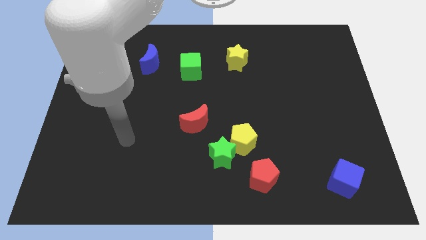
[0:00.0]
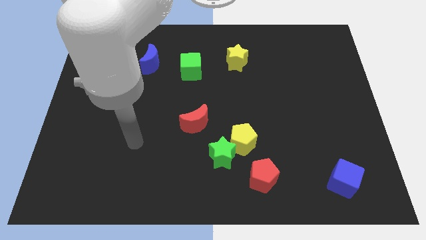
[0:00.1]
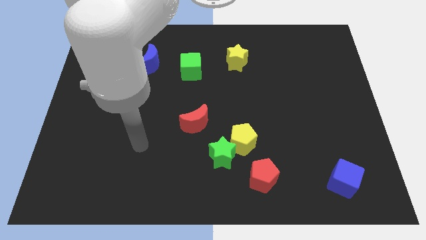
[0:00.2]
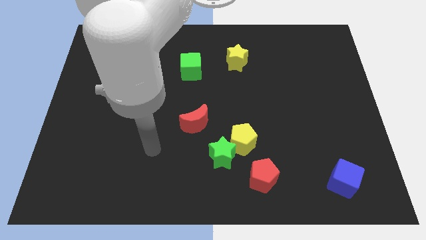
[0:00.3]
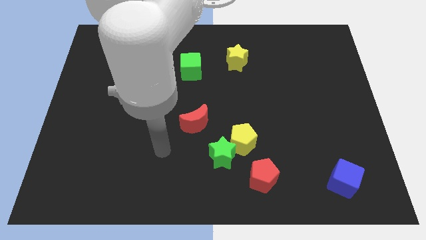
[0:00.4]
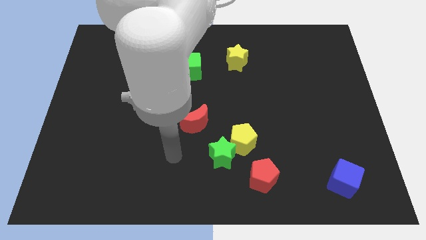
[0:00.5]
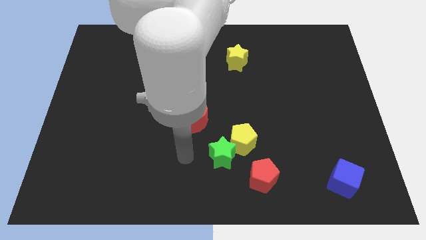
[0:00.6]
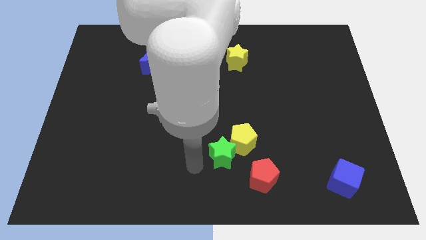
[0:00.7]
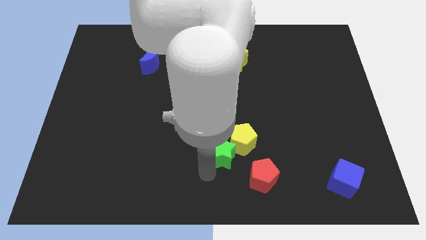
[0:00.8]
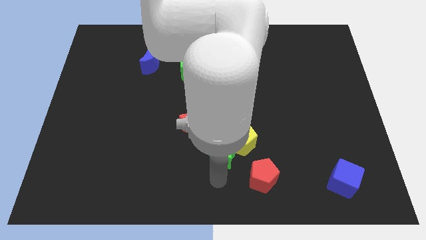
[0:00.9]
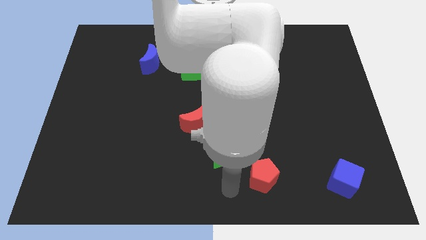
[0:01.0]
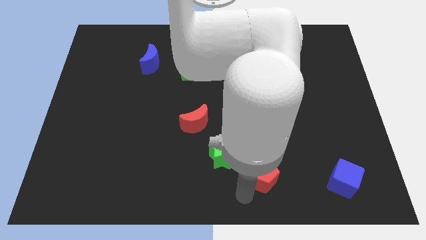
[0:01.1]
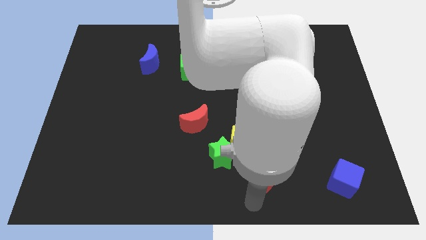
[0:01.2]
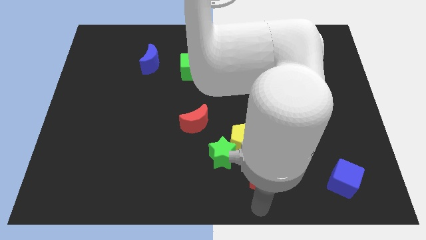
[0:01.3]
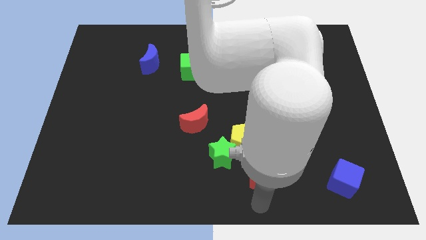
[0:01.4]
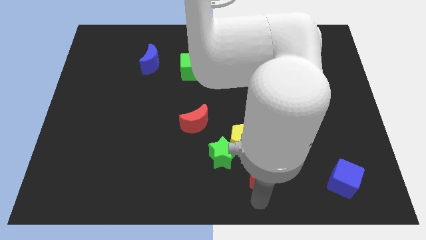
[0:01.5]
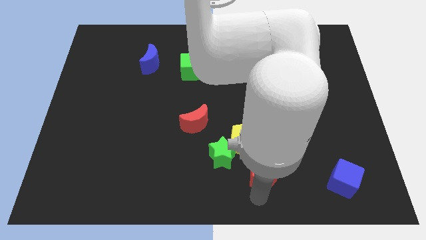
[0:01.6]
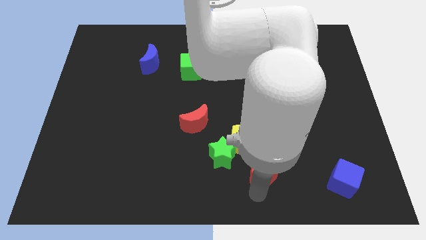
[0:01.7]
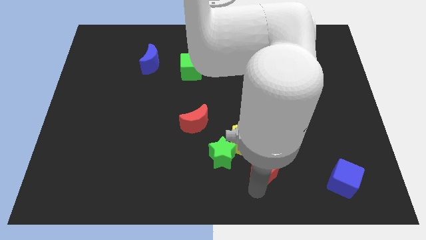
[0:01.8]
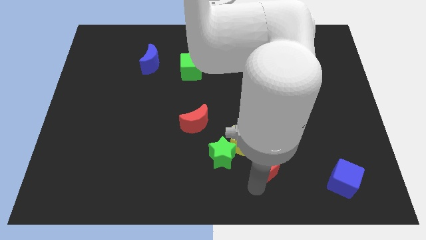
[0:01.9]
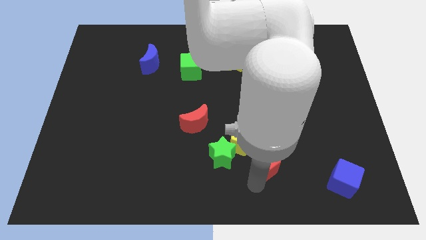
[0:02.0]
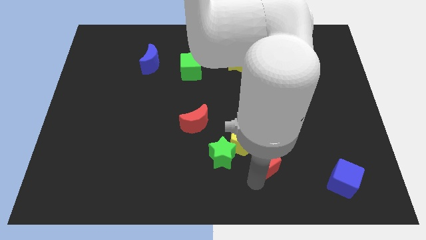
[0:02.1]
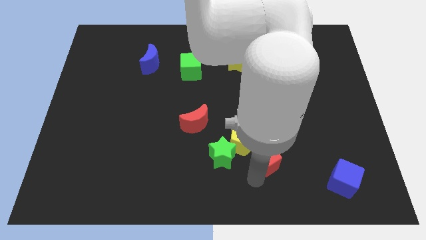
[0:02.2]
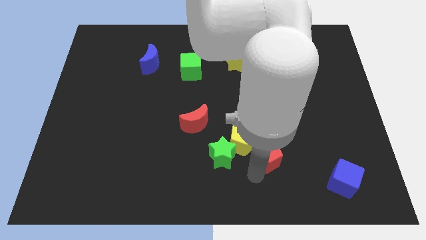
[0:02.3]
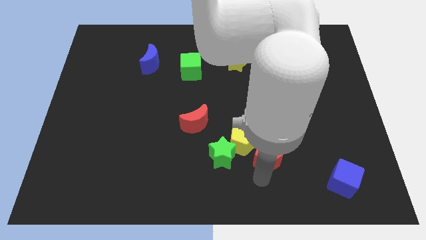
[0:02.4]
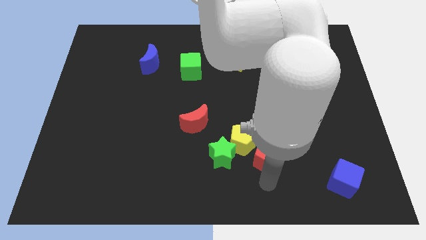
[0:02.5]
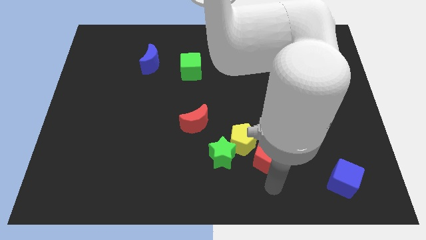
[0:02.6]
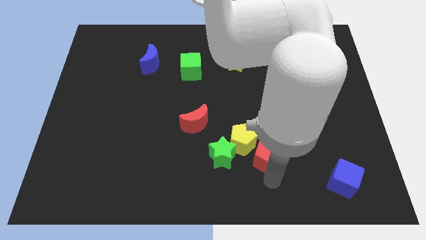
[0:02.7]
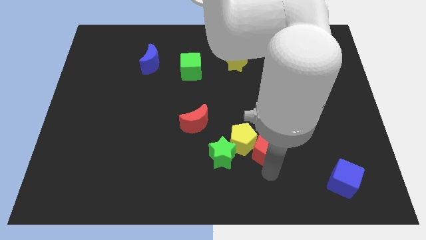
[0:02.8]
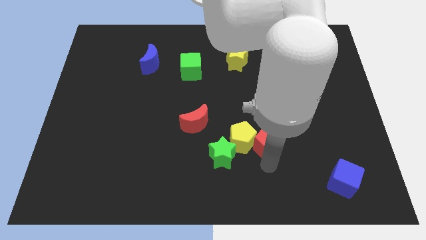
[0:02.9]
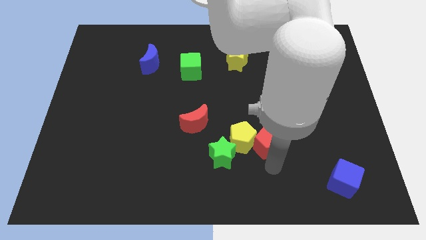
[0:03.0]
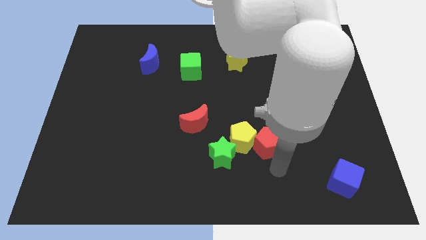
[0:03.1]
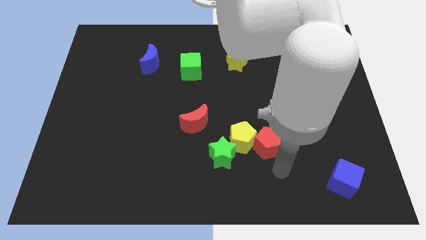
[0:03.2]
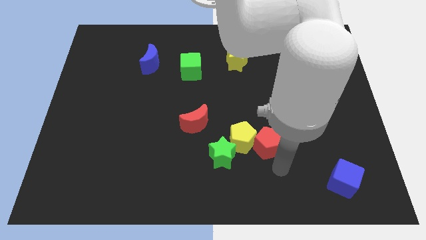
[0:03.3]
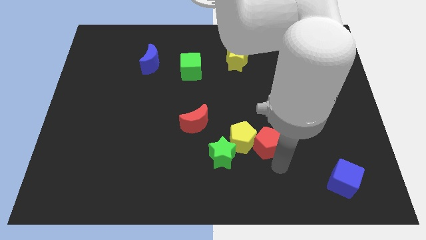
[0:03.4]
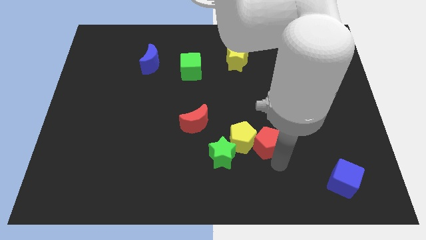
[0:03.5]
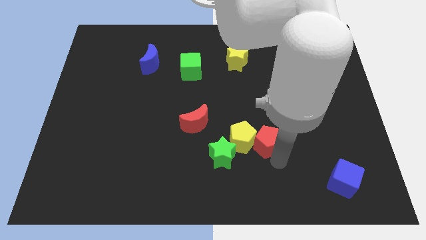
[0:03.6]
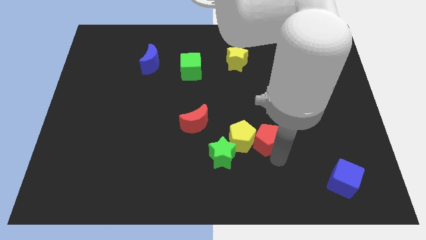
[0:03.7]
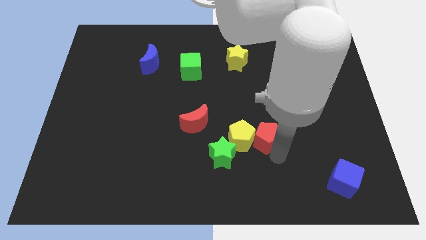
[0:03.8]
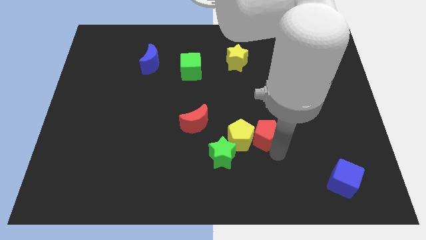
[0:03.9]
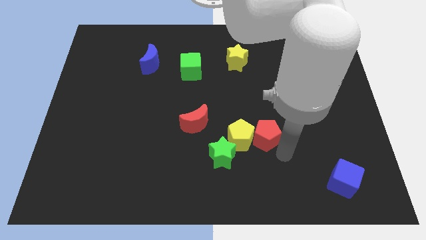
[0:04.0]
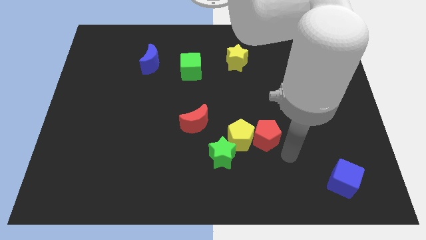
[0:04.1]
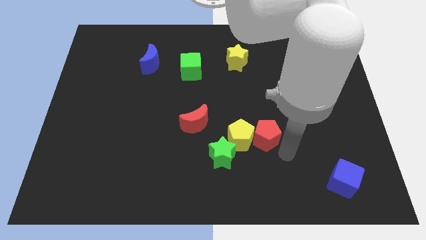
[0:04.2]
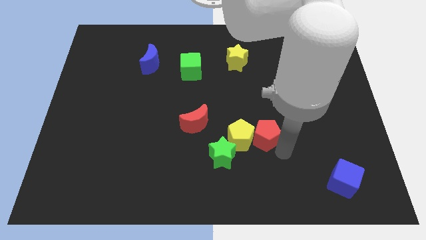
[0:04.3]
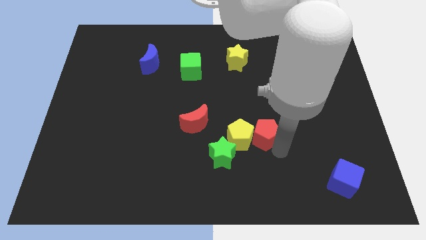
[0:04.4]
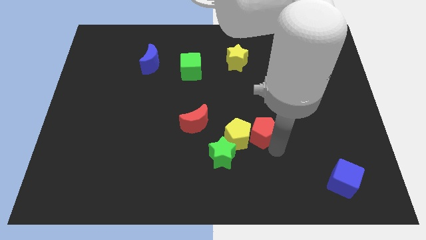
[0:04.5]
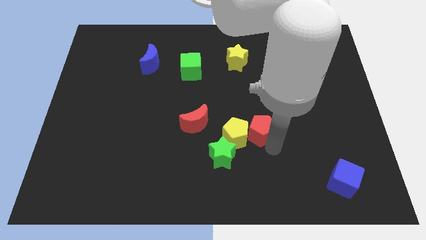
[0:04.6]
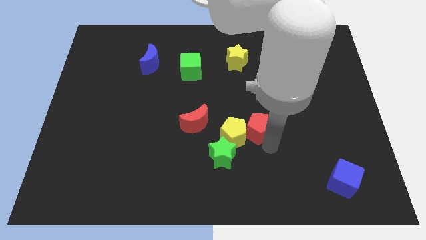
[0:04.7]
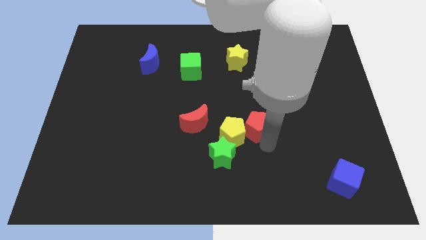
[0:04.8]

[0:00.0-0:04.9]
push the red pentagon to the middle of the board

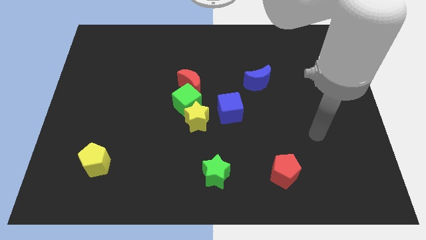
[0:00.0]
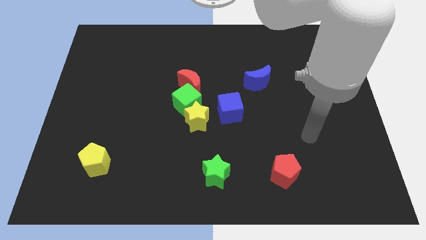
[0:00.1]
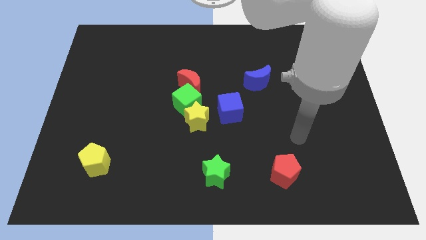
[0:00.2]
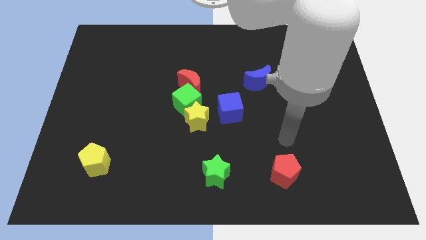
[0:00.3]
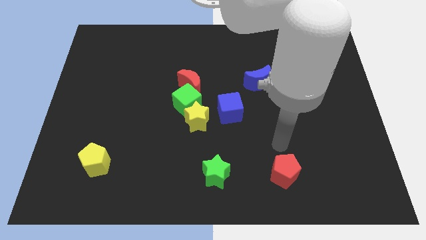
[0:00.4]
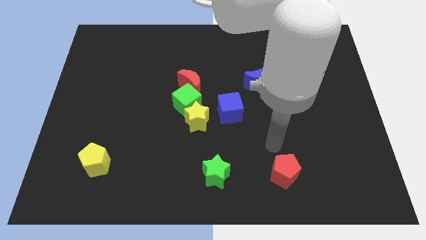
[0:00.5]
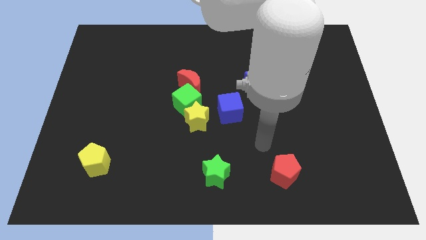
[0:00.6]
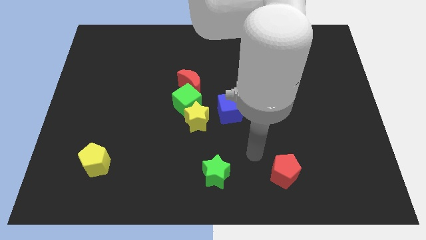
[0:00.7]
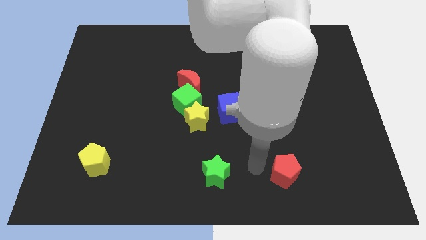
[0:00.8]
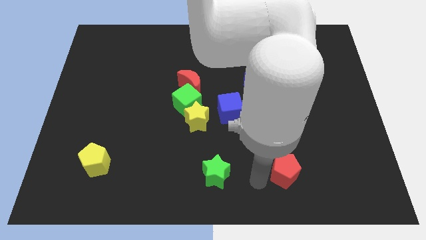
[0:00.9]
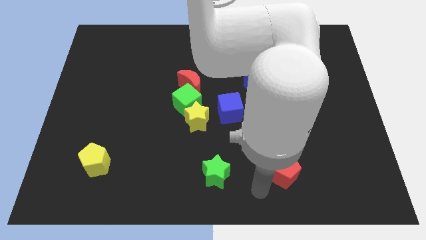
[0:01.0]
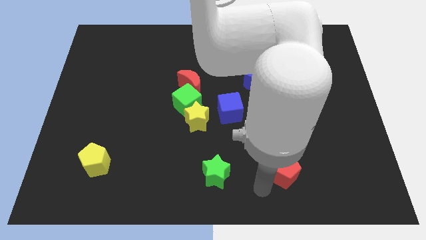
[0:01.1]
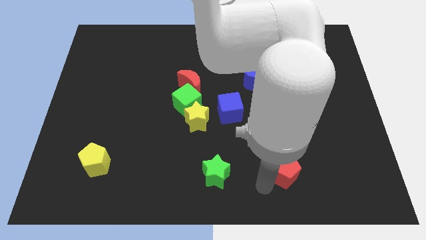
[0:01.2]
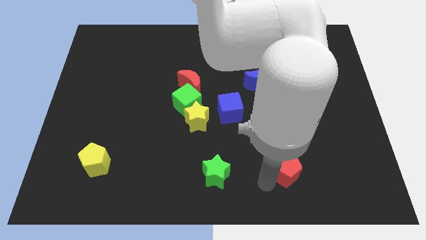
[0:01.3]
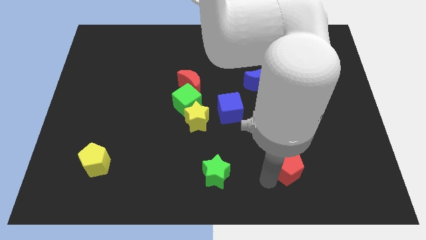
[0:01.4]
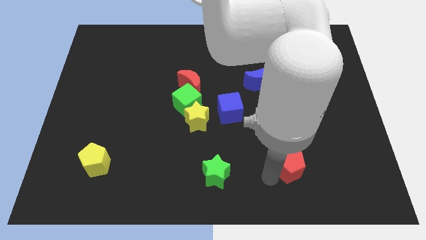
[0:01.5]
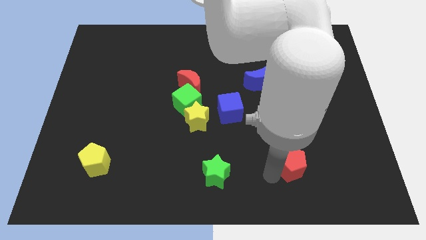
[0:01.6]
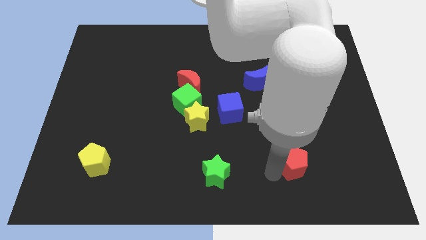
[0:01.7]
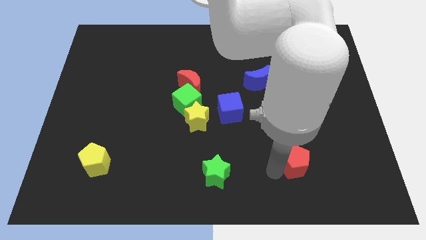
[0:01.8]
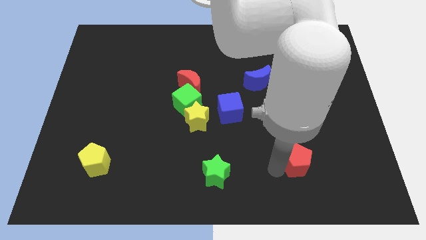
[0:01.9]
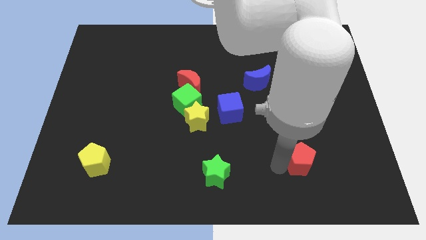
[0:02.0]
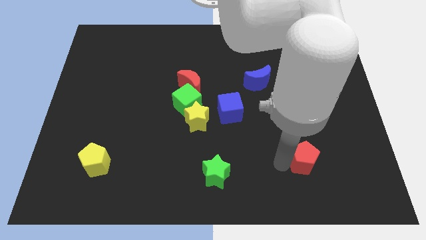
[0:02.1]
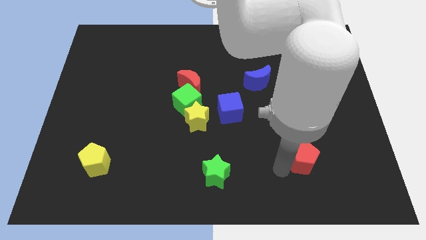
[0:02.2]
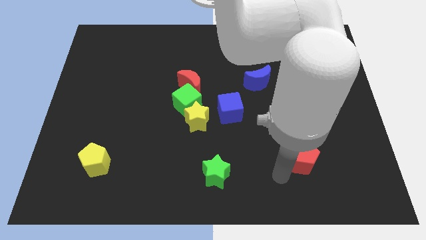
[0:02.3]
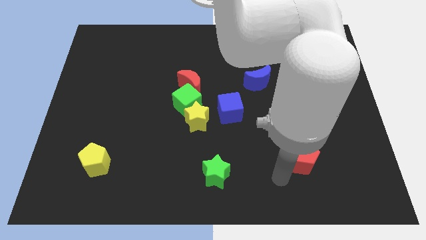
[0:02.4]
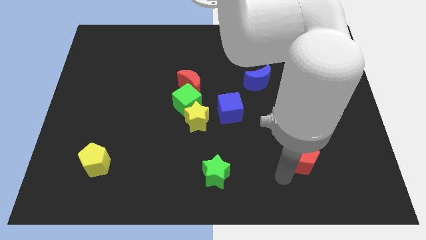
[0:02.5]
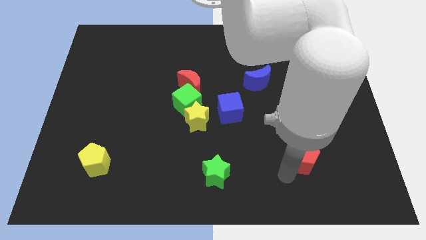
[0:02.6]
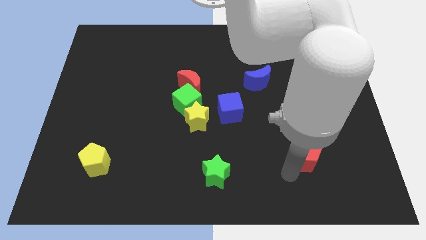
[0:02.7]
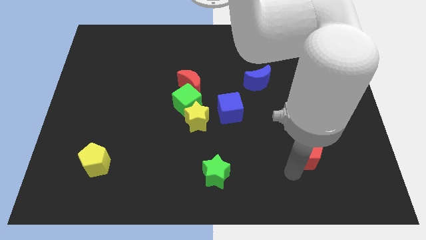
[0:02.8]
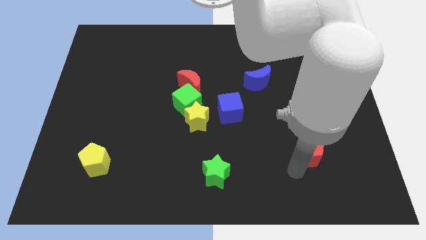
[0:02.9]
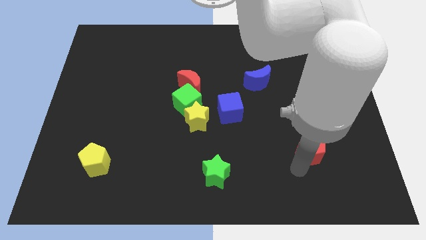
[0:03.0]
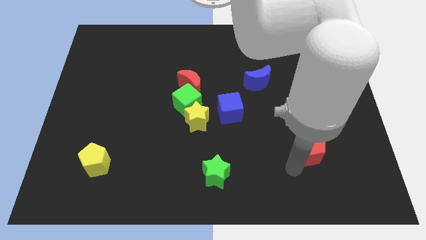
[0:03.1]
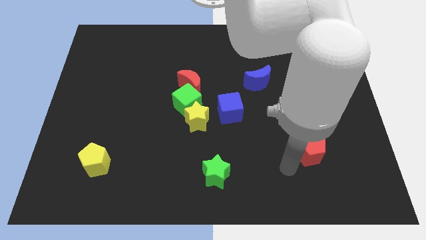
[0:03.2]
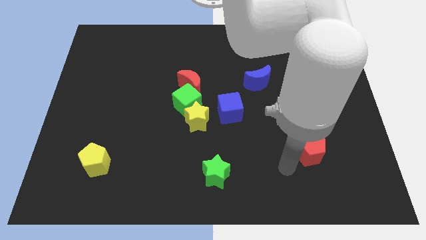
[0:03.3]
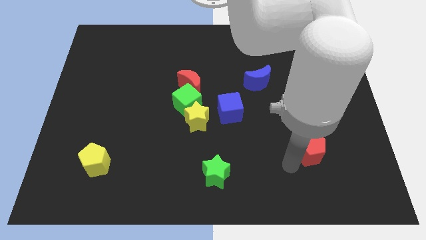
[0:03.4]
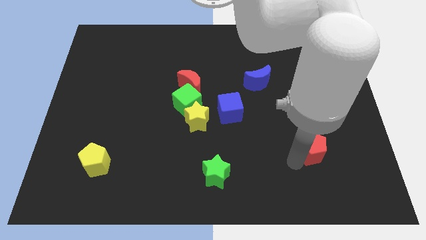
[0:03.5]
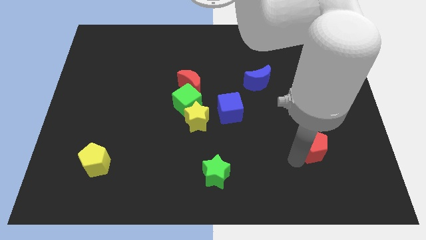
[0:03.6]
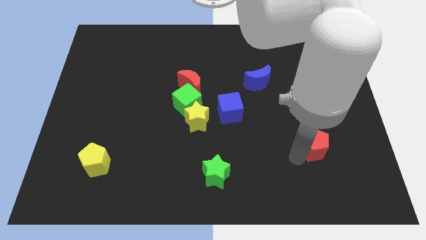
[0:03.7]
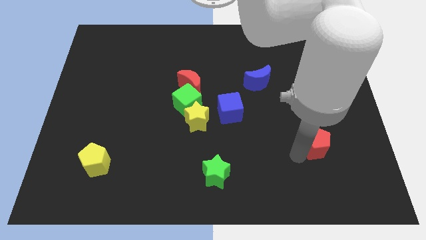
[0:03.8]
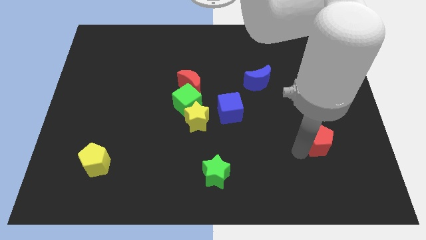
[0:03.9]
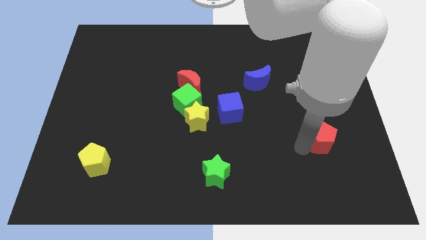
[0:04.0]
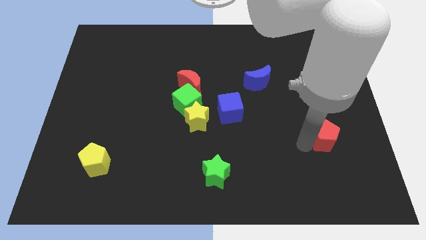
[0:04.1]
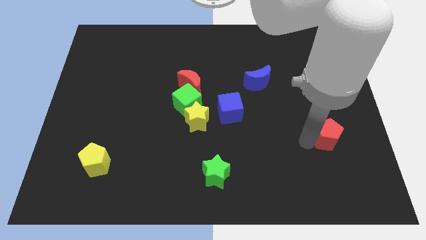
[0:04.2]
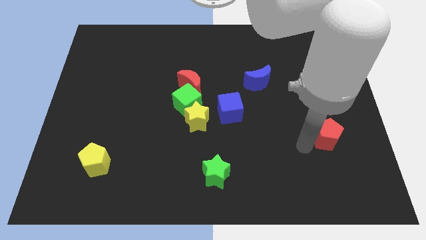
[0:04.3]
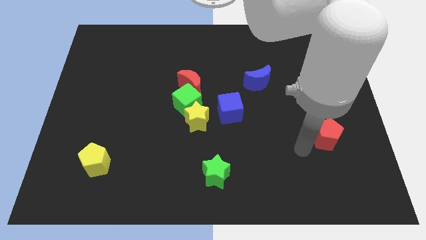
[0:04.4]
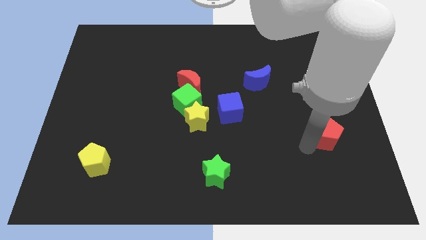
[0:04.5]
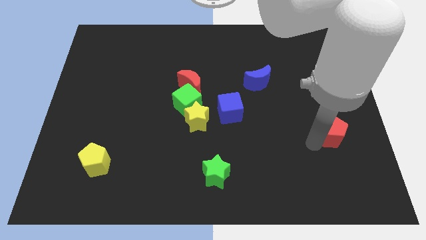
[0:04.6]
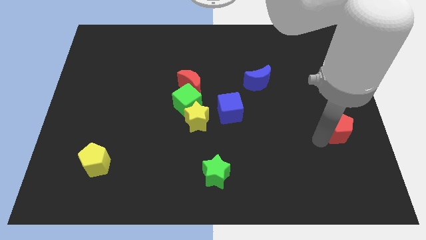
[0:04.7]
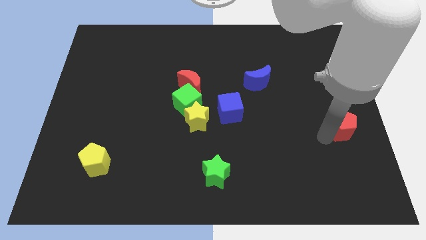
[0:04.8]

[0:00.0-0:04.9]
put the red pentagon to the center right
